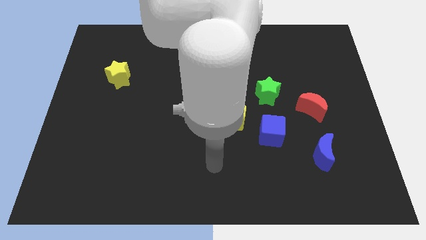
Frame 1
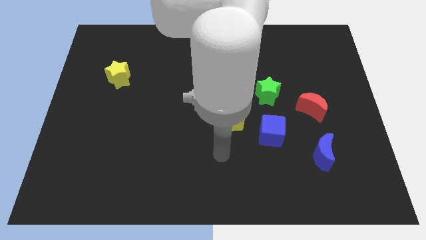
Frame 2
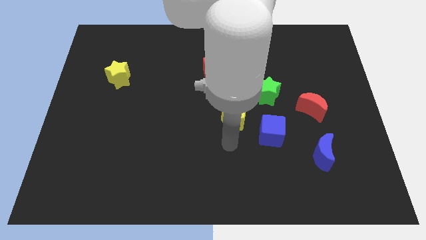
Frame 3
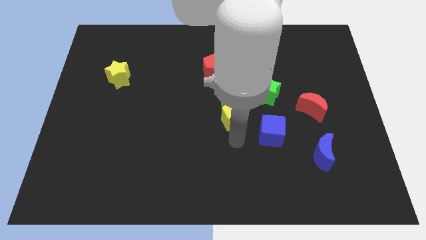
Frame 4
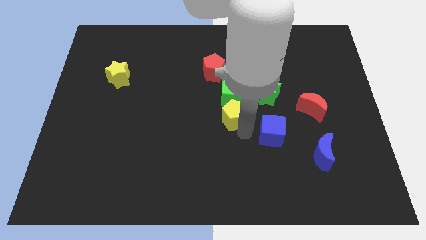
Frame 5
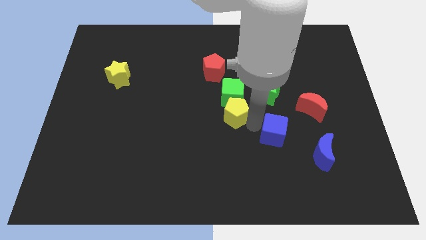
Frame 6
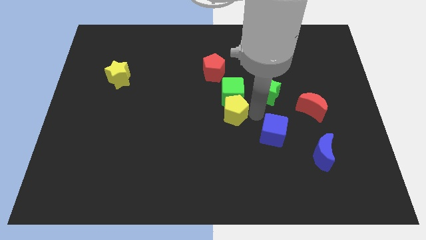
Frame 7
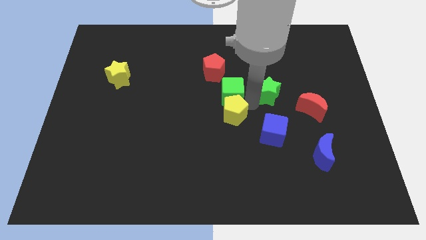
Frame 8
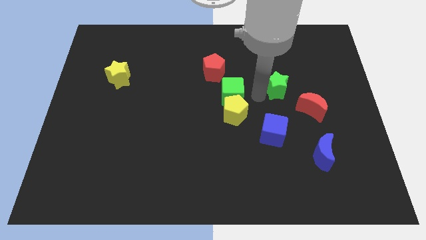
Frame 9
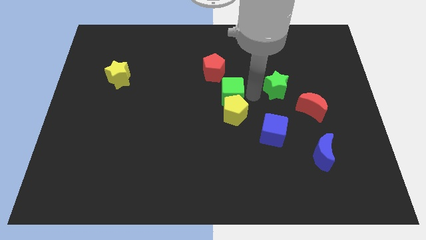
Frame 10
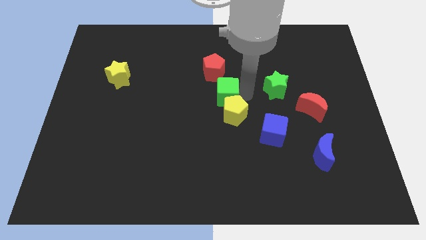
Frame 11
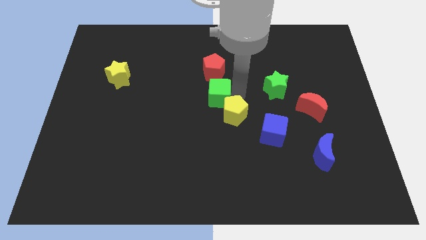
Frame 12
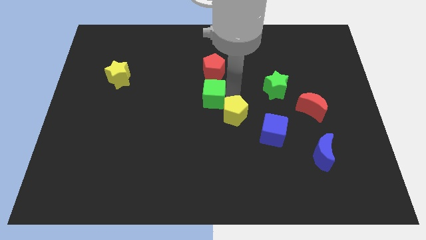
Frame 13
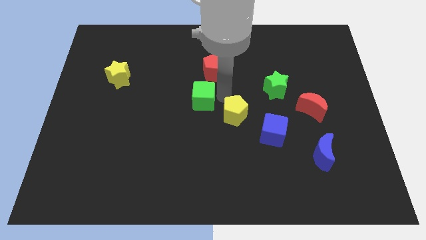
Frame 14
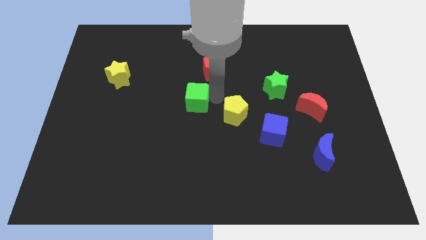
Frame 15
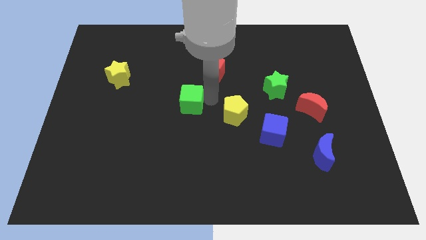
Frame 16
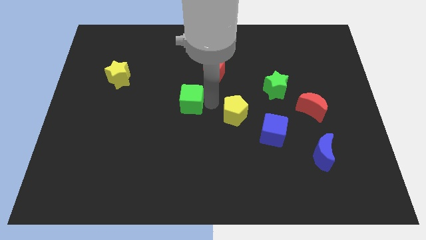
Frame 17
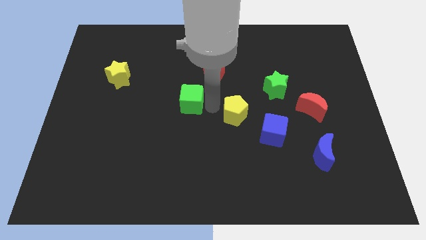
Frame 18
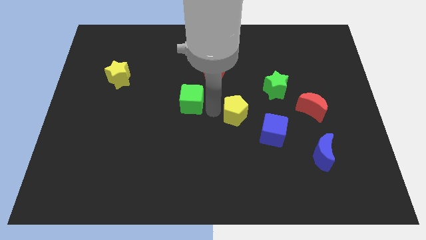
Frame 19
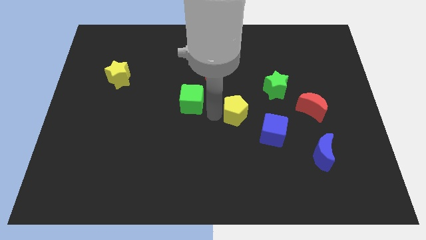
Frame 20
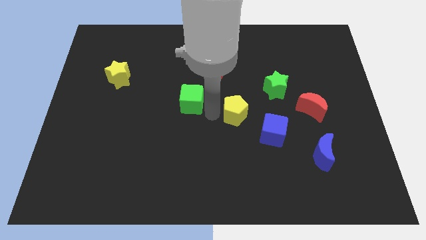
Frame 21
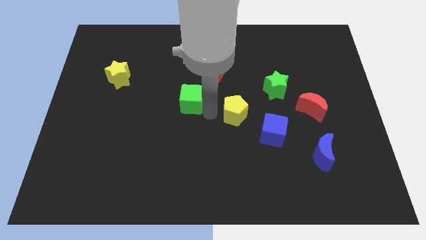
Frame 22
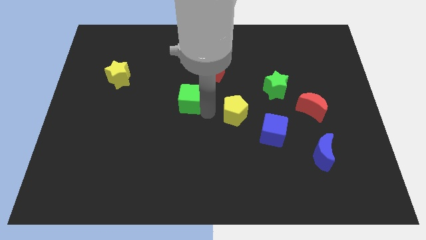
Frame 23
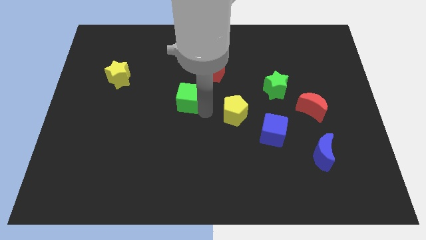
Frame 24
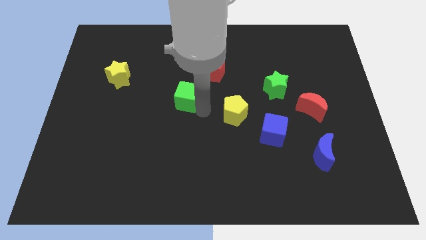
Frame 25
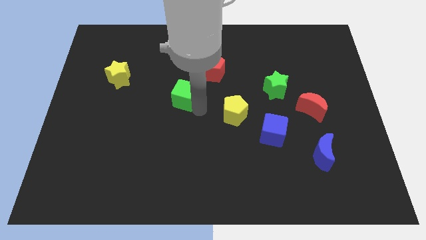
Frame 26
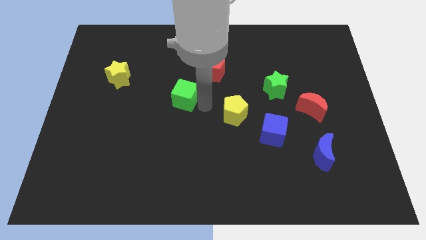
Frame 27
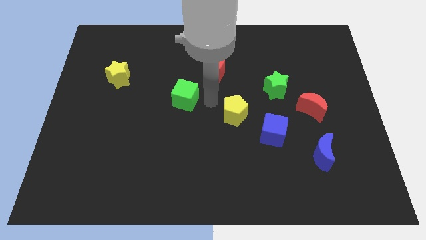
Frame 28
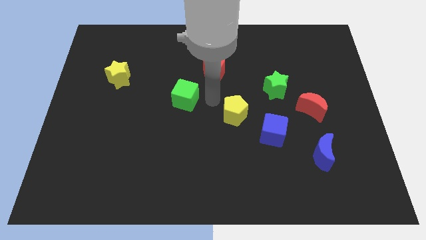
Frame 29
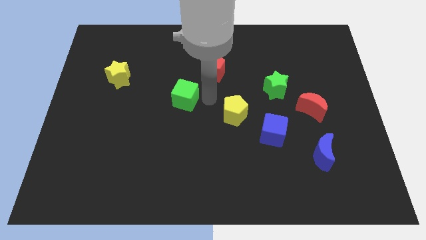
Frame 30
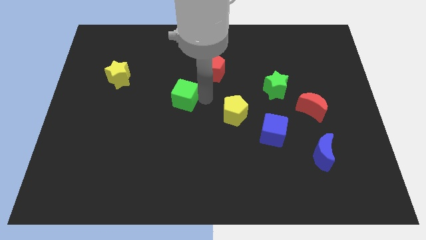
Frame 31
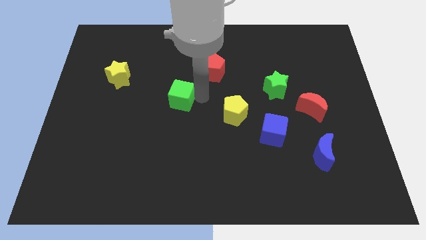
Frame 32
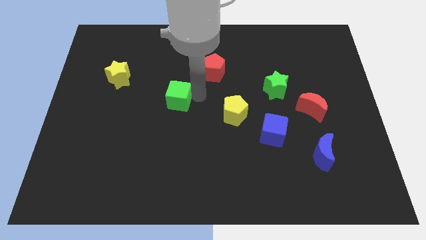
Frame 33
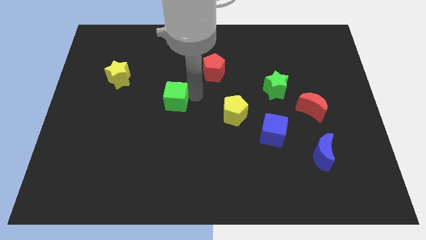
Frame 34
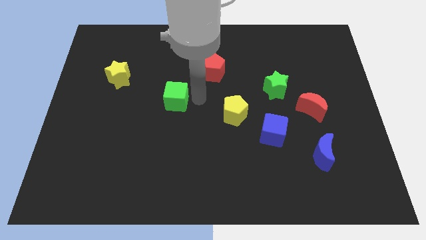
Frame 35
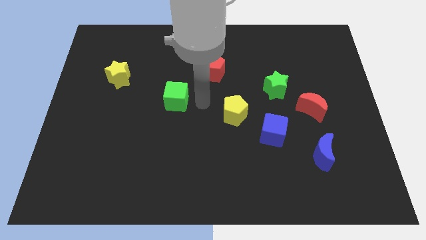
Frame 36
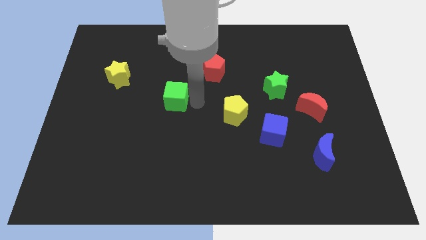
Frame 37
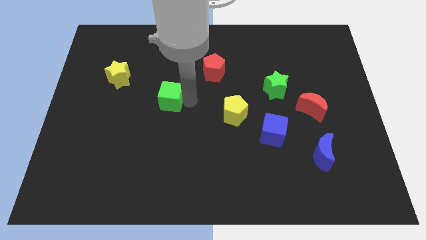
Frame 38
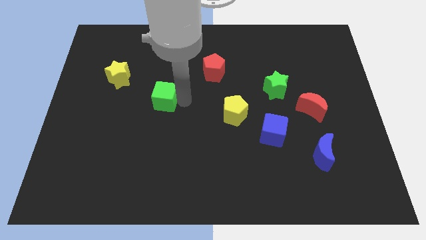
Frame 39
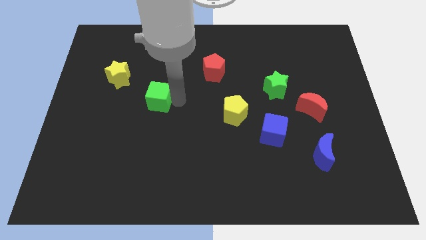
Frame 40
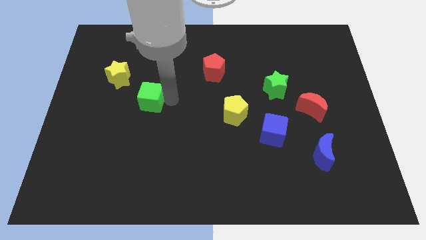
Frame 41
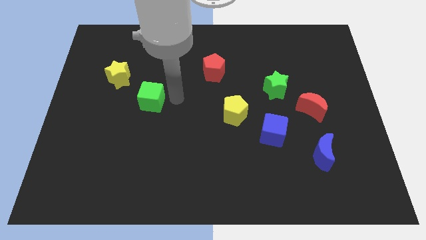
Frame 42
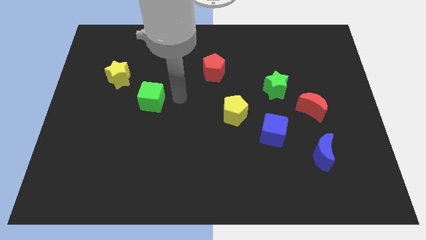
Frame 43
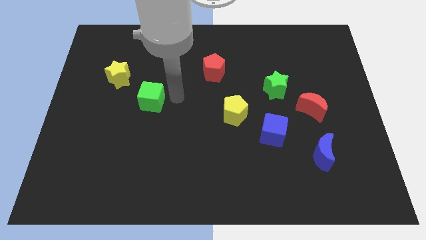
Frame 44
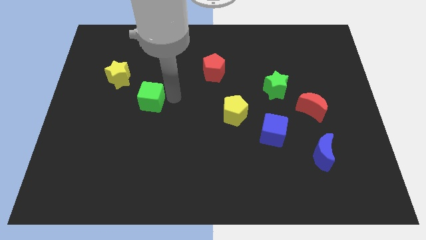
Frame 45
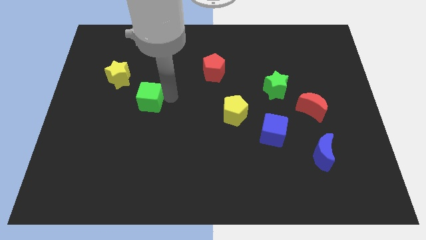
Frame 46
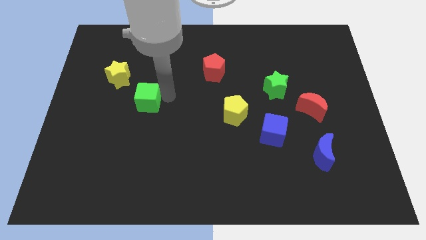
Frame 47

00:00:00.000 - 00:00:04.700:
move the green cube left

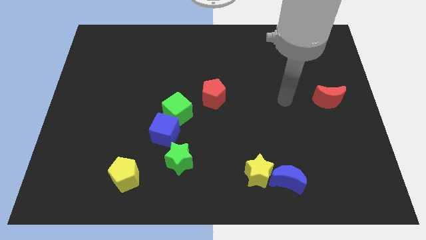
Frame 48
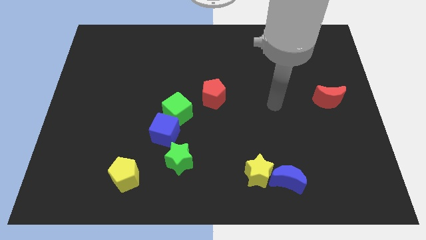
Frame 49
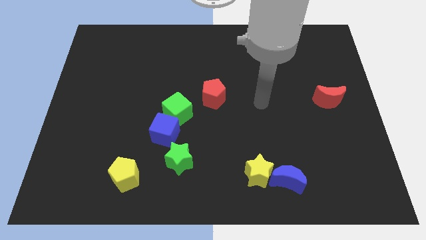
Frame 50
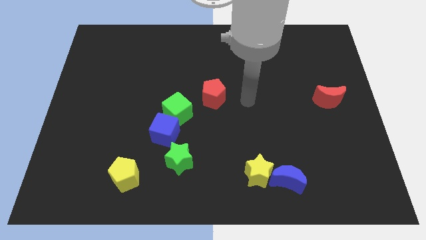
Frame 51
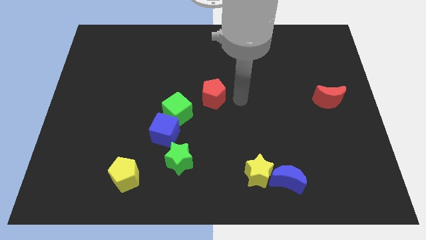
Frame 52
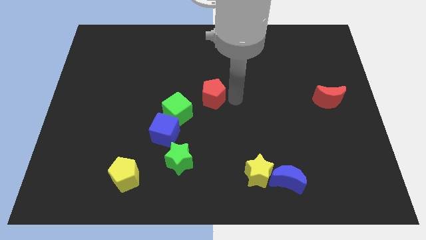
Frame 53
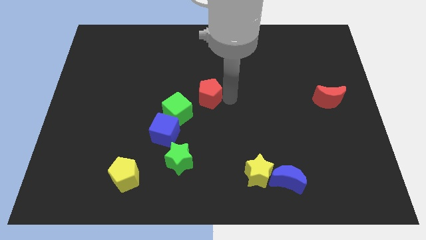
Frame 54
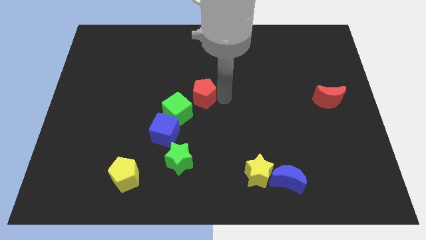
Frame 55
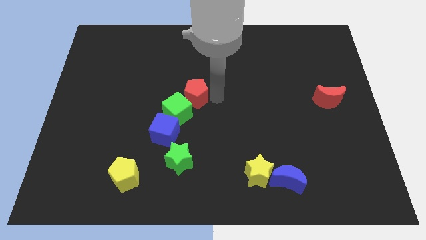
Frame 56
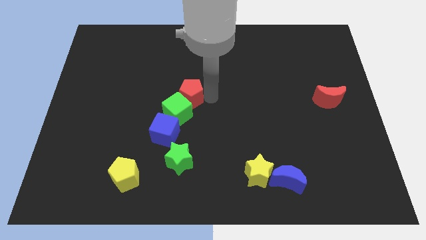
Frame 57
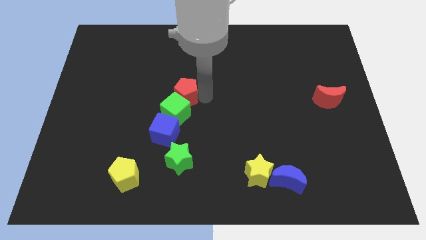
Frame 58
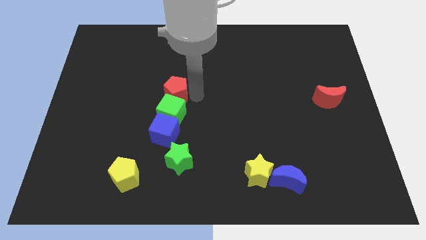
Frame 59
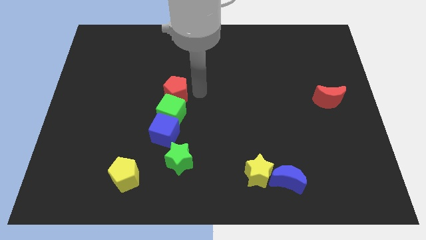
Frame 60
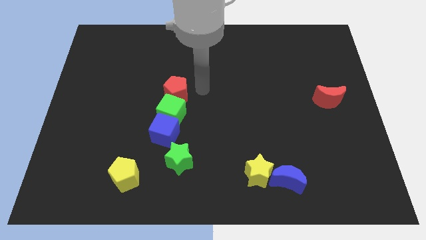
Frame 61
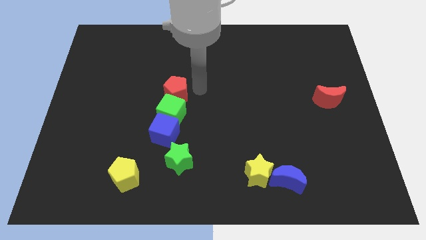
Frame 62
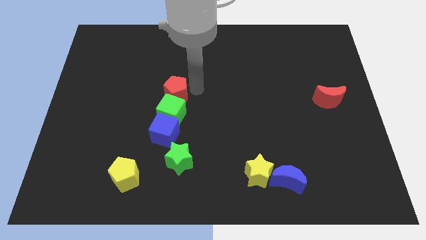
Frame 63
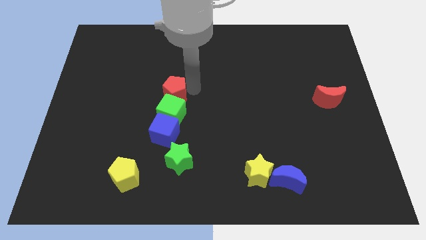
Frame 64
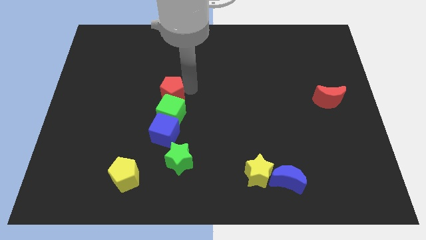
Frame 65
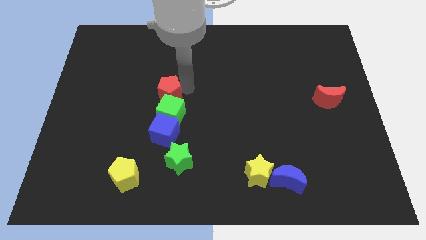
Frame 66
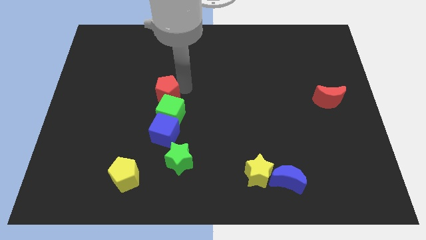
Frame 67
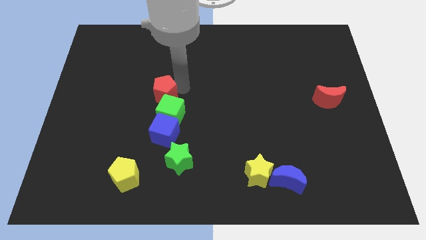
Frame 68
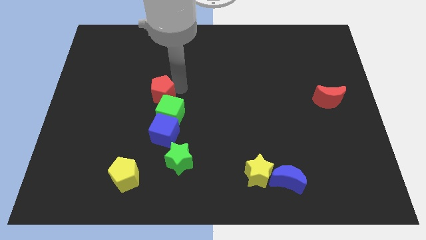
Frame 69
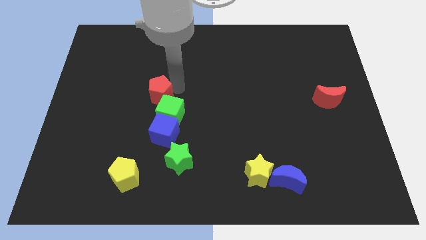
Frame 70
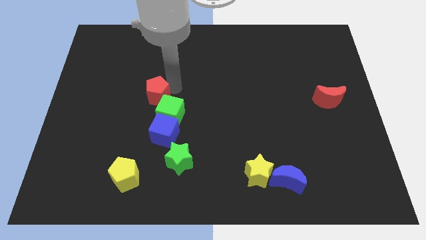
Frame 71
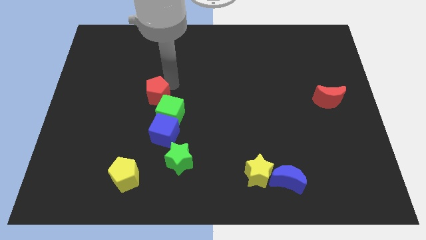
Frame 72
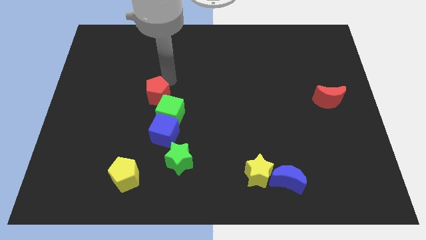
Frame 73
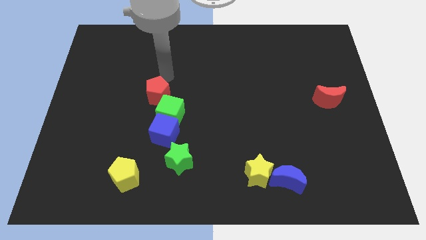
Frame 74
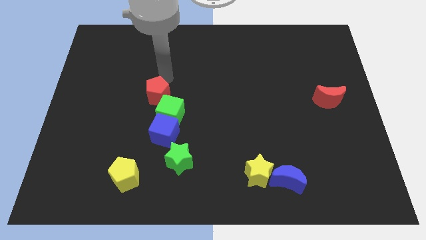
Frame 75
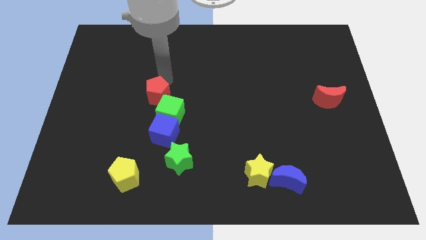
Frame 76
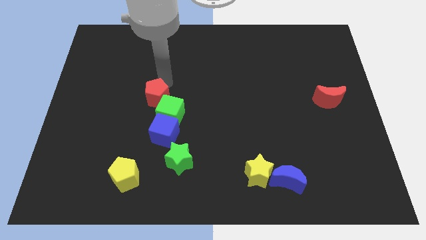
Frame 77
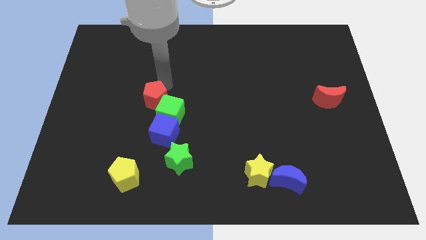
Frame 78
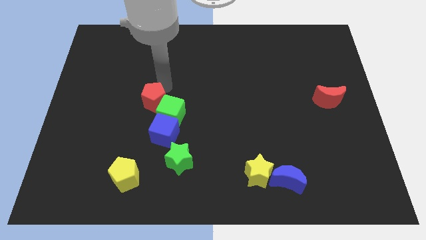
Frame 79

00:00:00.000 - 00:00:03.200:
move the red pentagon down and then to the left a bit
